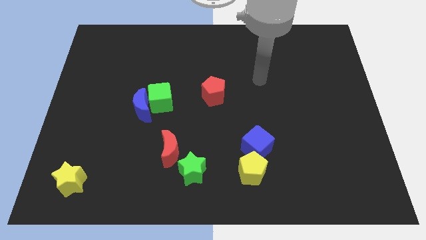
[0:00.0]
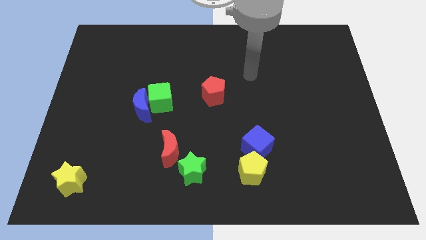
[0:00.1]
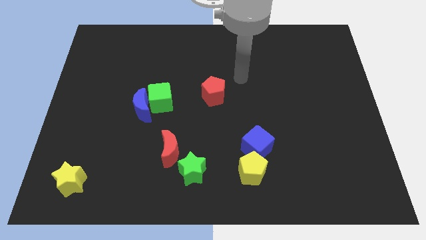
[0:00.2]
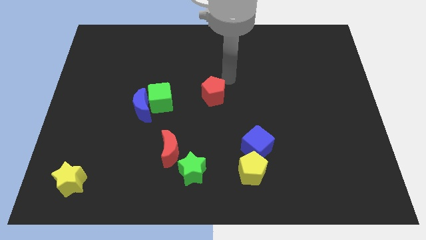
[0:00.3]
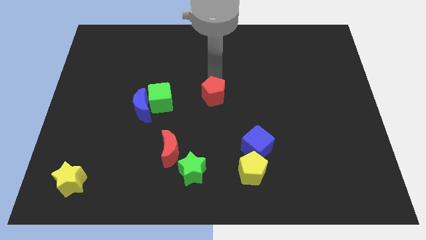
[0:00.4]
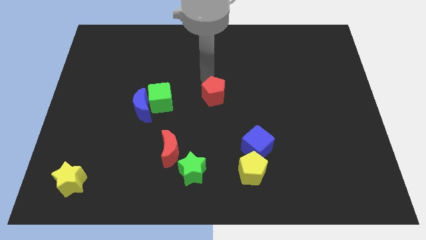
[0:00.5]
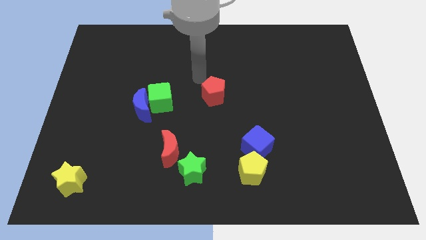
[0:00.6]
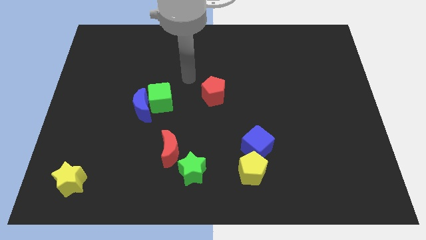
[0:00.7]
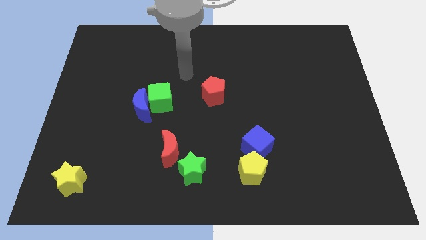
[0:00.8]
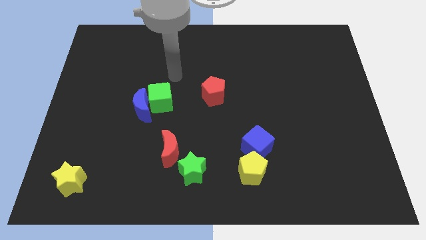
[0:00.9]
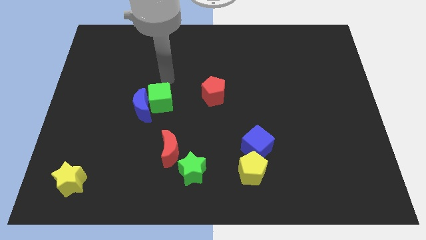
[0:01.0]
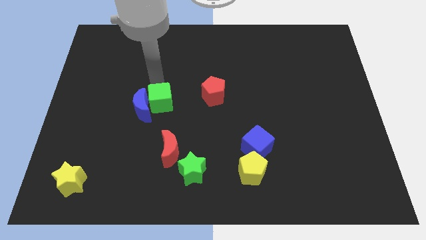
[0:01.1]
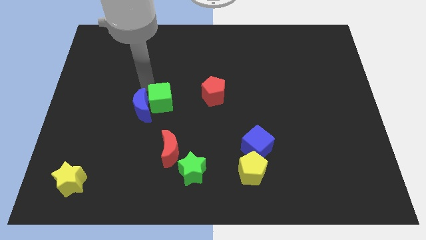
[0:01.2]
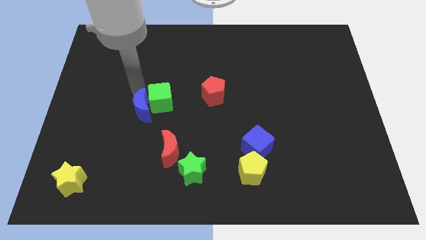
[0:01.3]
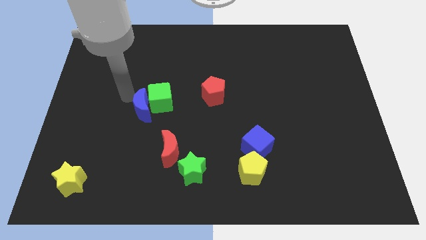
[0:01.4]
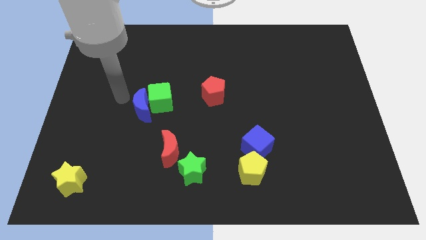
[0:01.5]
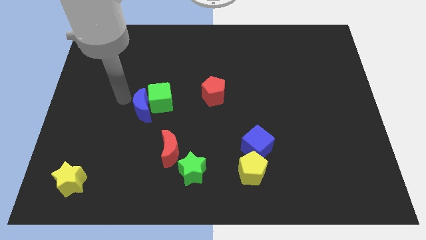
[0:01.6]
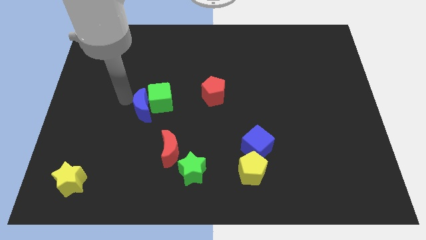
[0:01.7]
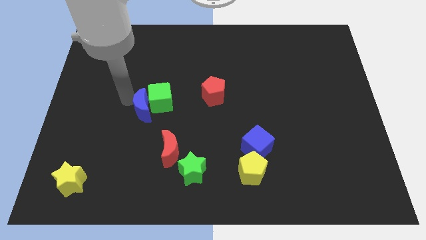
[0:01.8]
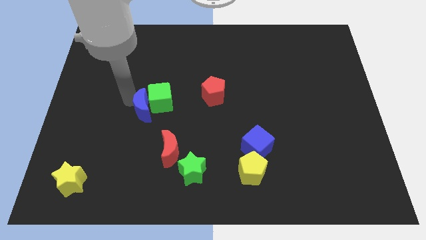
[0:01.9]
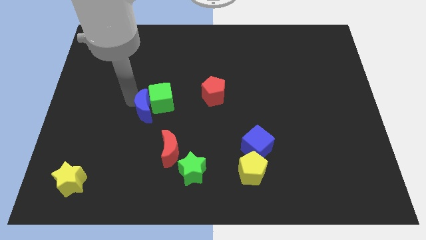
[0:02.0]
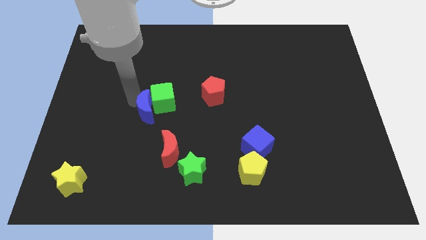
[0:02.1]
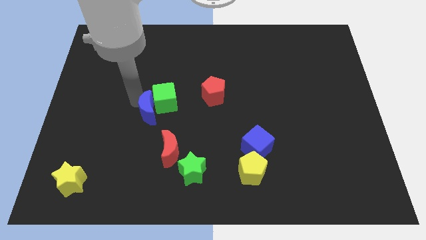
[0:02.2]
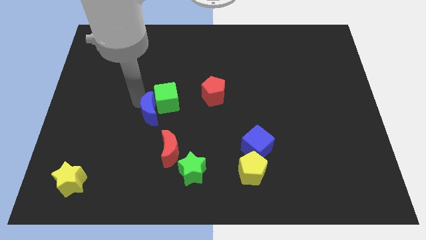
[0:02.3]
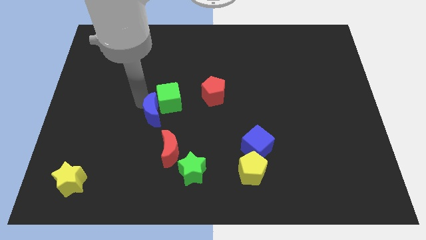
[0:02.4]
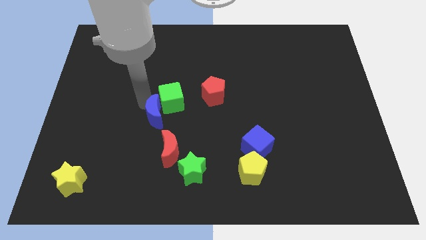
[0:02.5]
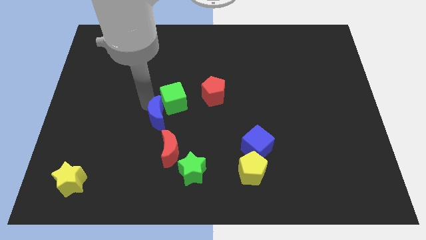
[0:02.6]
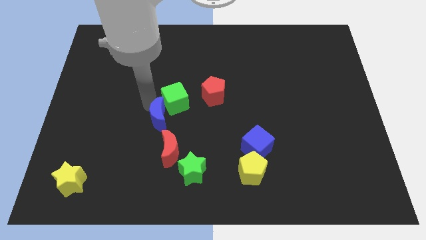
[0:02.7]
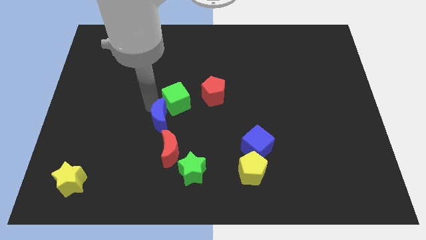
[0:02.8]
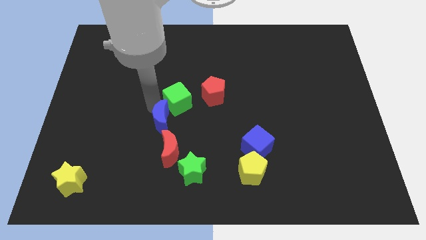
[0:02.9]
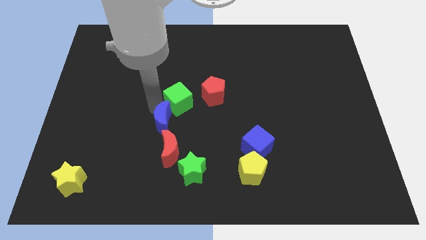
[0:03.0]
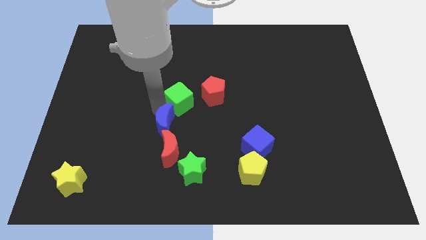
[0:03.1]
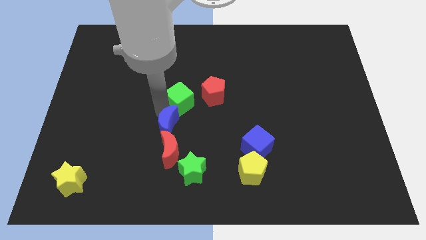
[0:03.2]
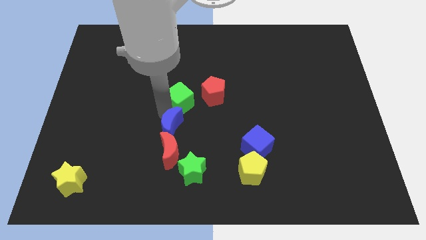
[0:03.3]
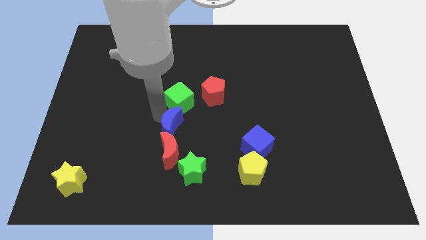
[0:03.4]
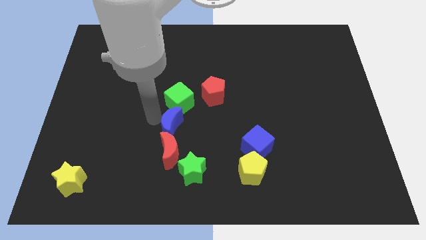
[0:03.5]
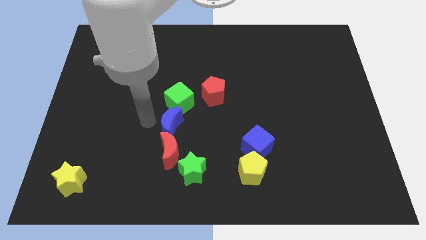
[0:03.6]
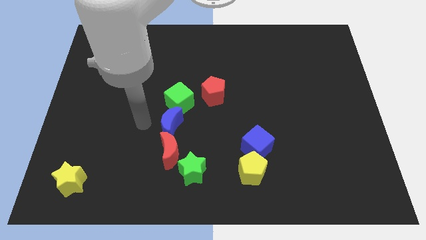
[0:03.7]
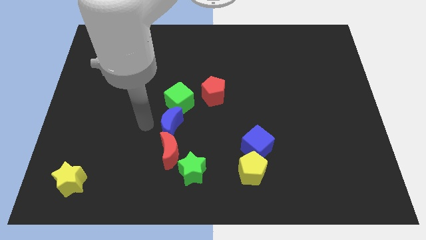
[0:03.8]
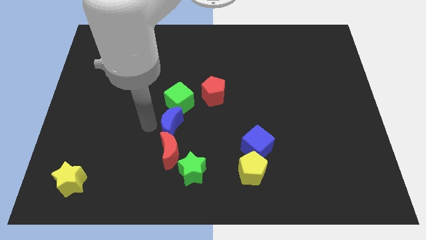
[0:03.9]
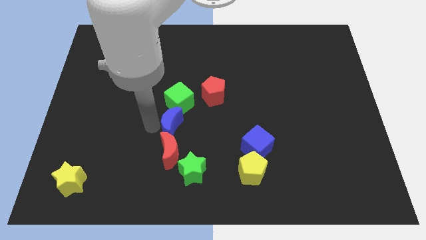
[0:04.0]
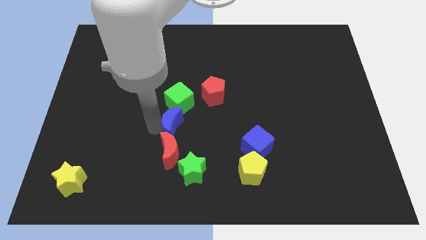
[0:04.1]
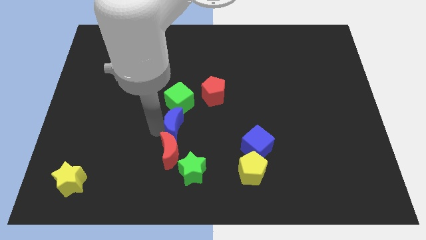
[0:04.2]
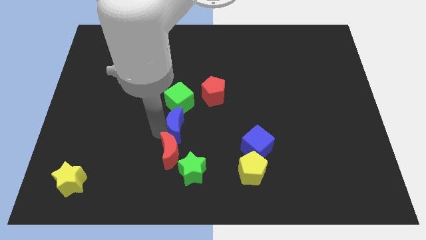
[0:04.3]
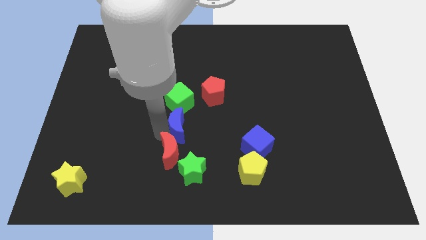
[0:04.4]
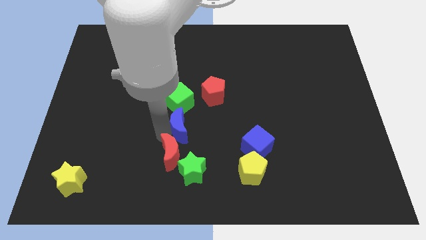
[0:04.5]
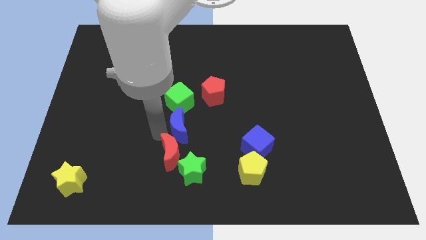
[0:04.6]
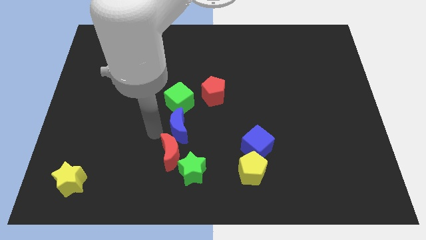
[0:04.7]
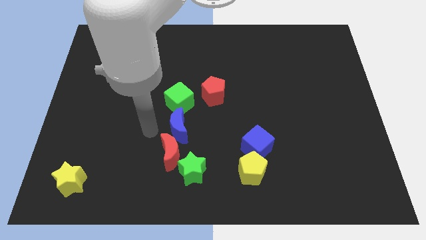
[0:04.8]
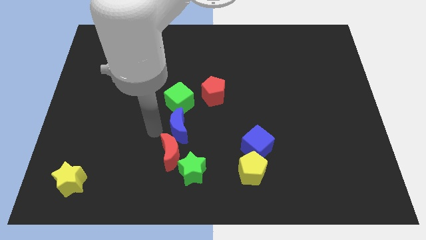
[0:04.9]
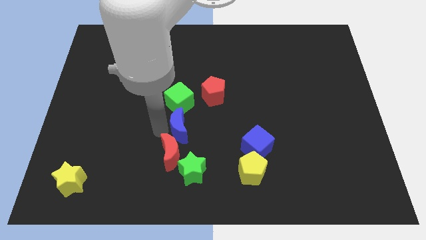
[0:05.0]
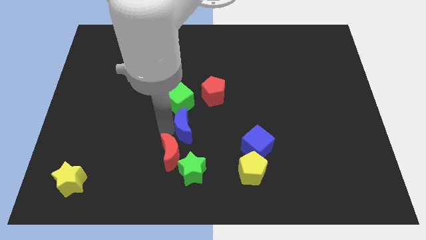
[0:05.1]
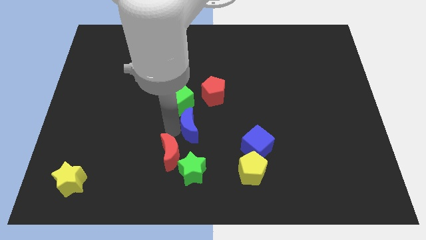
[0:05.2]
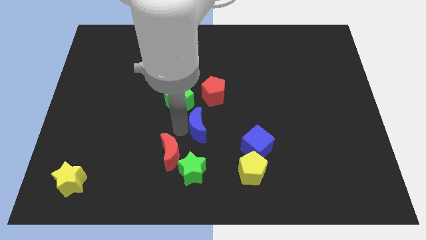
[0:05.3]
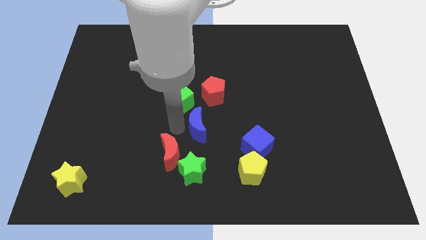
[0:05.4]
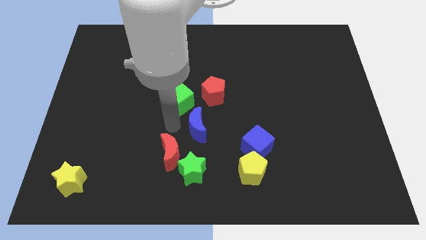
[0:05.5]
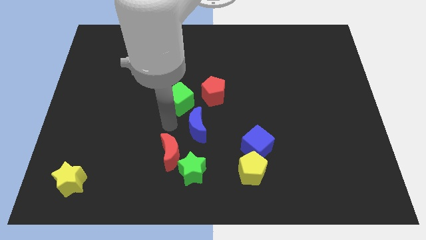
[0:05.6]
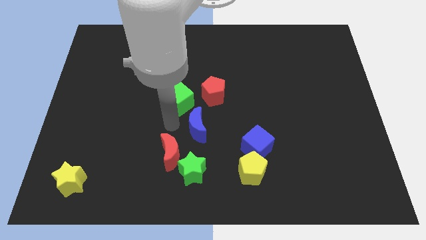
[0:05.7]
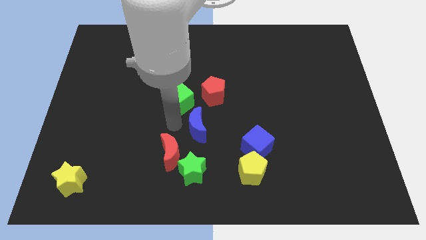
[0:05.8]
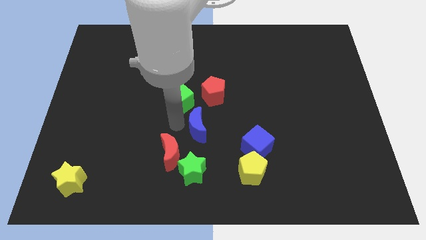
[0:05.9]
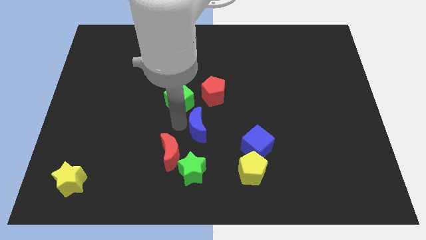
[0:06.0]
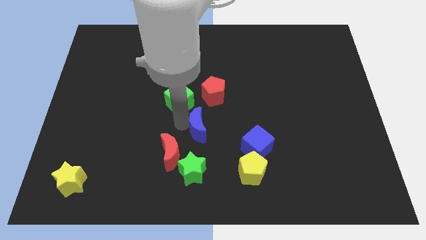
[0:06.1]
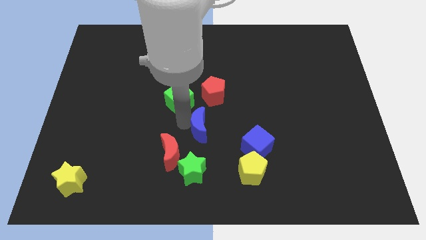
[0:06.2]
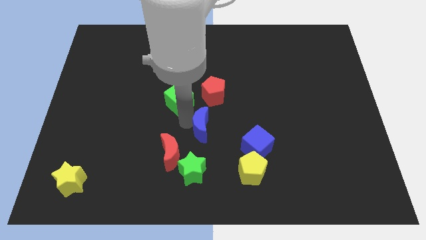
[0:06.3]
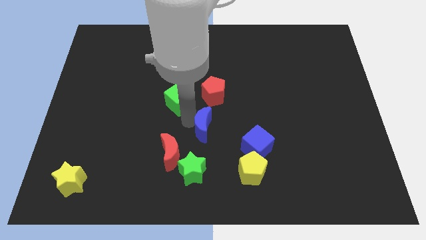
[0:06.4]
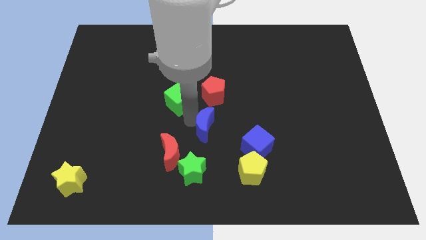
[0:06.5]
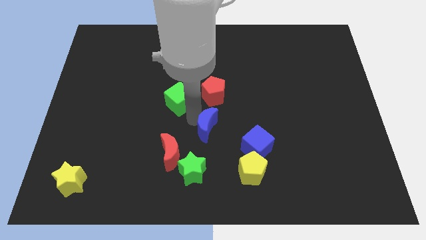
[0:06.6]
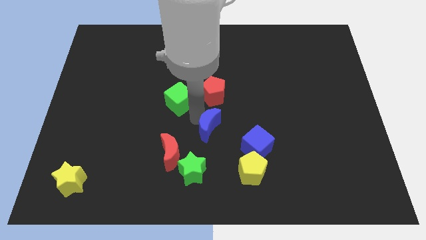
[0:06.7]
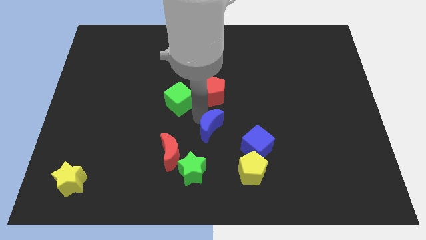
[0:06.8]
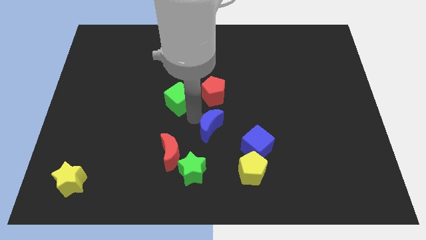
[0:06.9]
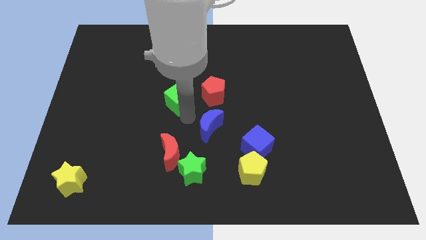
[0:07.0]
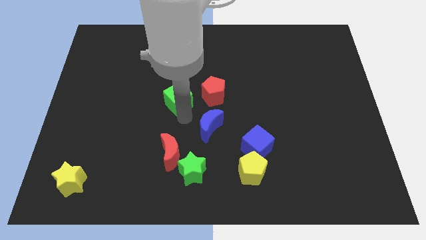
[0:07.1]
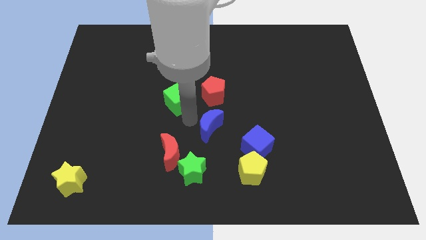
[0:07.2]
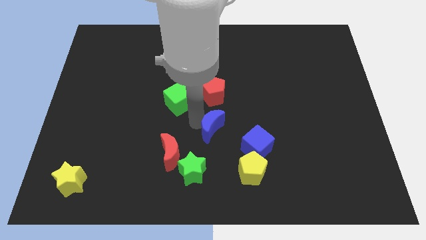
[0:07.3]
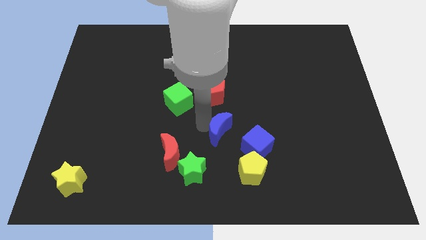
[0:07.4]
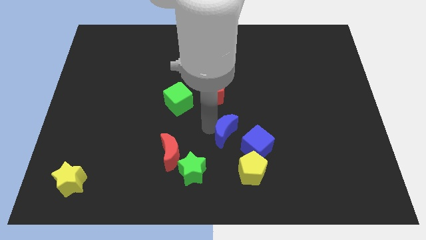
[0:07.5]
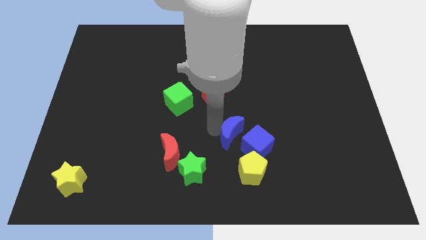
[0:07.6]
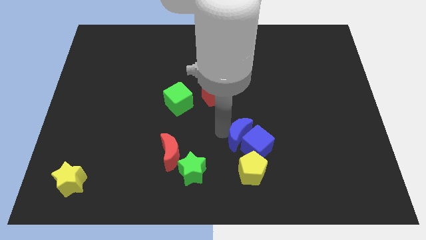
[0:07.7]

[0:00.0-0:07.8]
push the blue moon towards the blue cube
